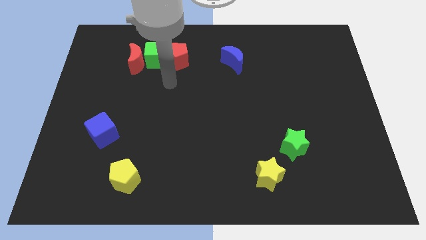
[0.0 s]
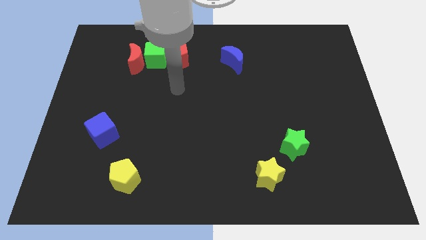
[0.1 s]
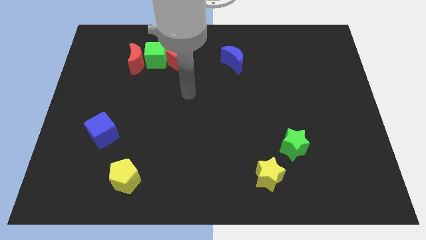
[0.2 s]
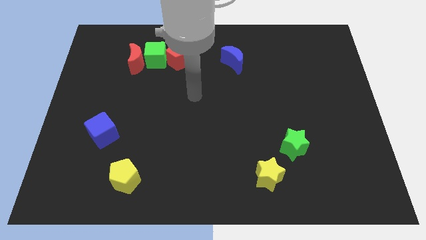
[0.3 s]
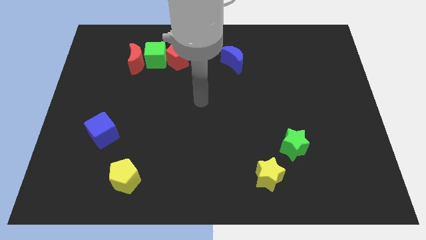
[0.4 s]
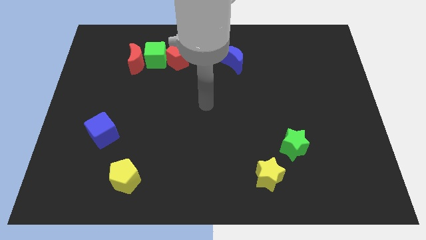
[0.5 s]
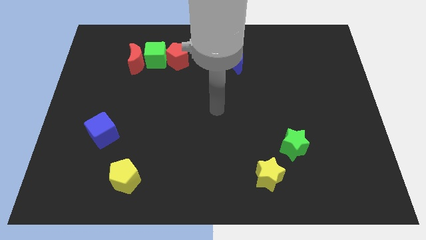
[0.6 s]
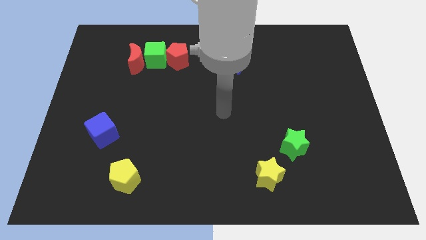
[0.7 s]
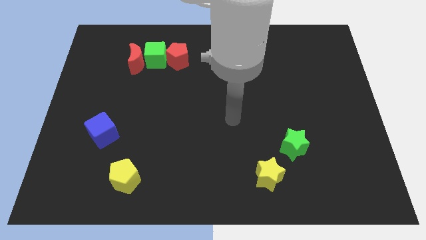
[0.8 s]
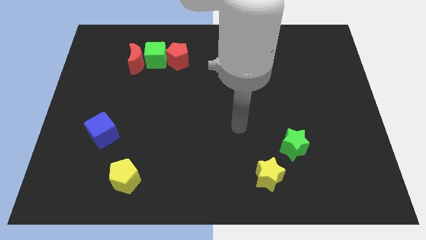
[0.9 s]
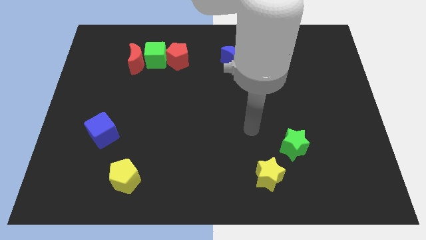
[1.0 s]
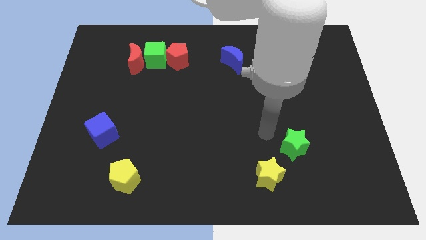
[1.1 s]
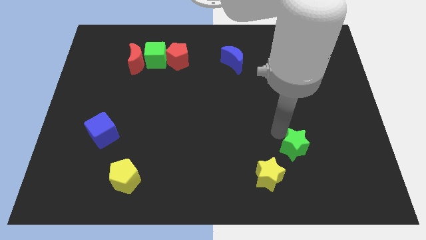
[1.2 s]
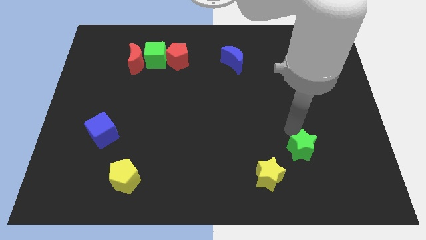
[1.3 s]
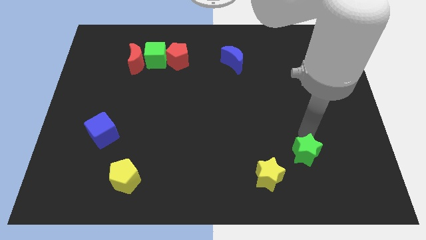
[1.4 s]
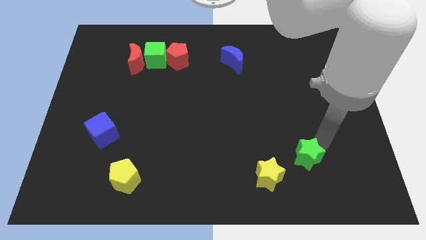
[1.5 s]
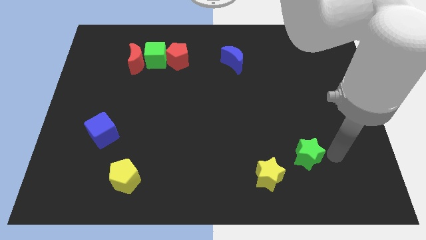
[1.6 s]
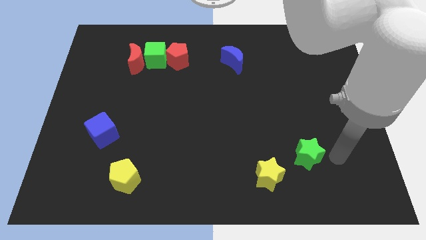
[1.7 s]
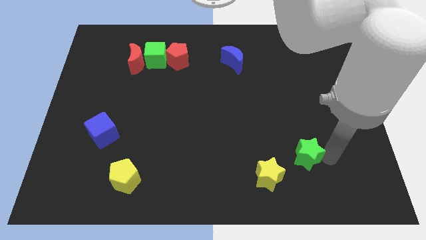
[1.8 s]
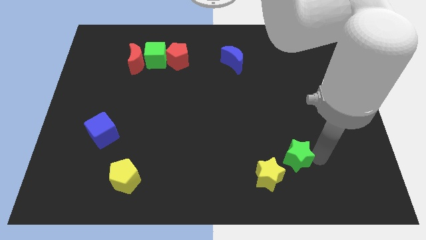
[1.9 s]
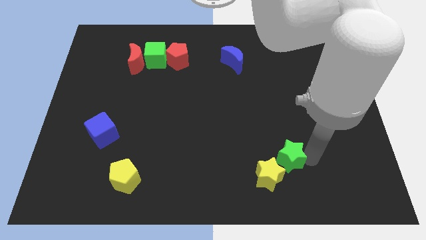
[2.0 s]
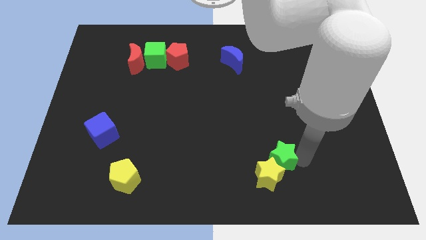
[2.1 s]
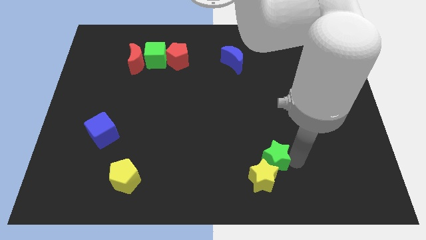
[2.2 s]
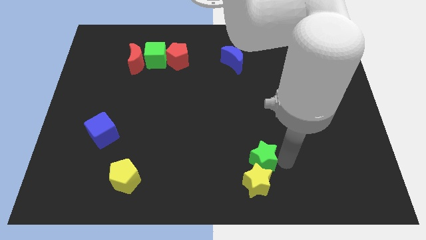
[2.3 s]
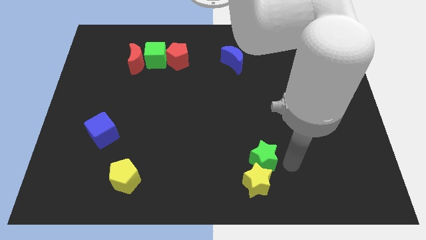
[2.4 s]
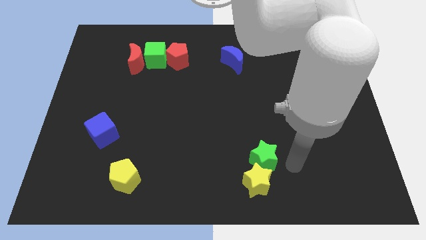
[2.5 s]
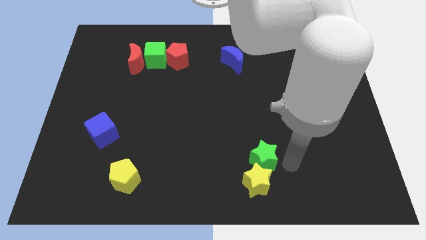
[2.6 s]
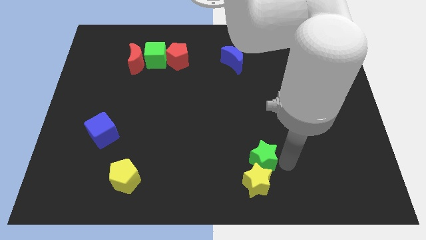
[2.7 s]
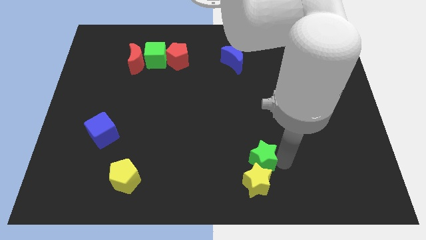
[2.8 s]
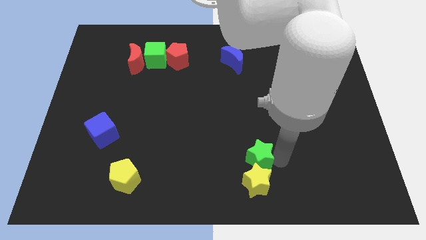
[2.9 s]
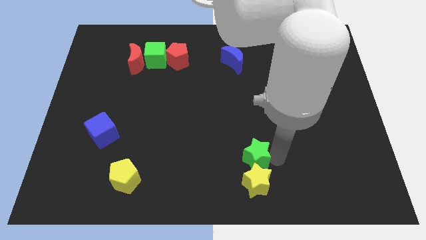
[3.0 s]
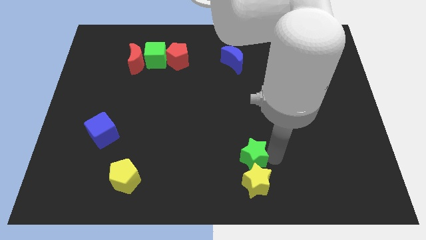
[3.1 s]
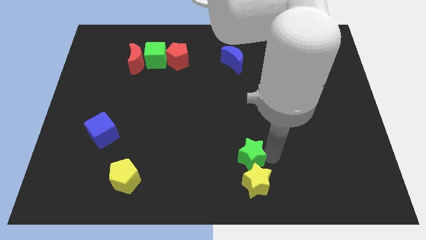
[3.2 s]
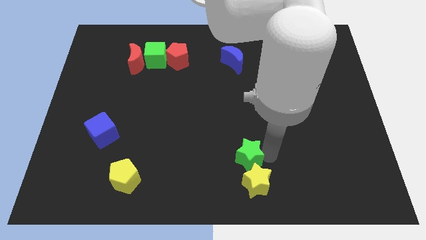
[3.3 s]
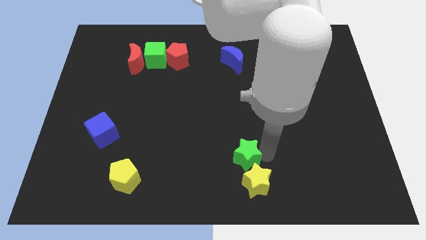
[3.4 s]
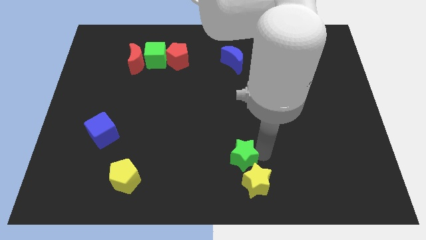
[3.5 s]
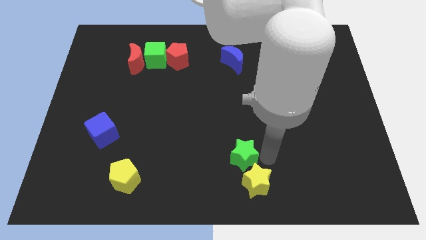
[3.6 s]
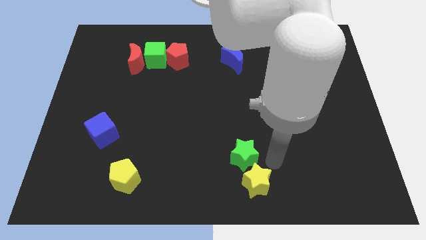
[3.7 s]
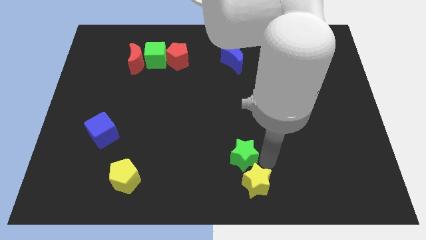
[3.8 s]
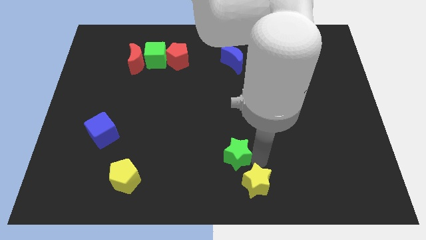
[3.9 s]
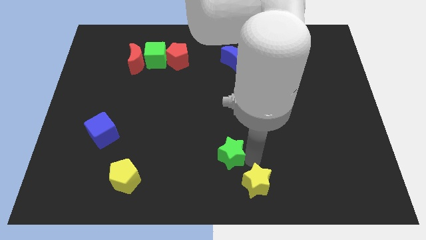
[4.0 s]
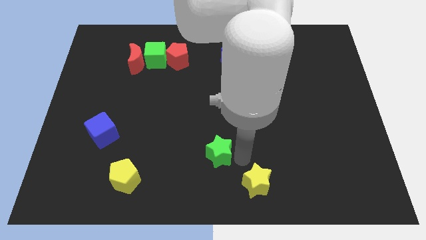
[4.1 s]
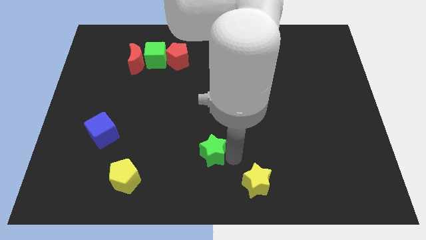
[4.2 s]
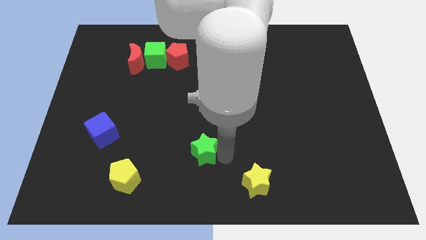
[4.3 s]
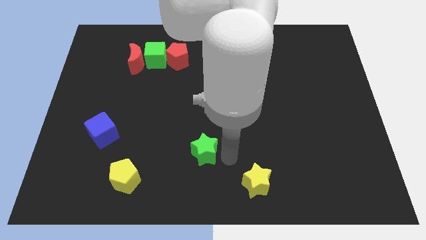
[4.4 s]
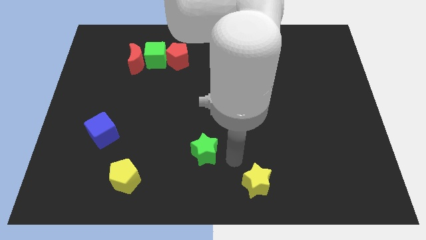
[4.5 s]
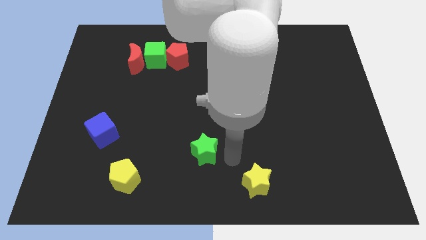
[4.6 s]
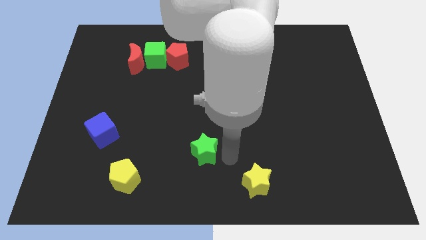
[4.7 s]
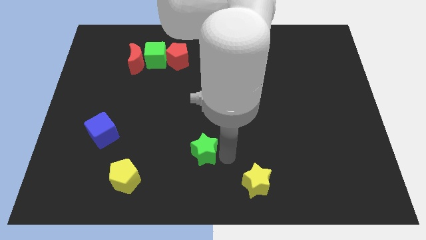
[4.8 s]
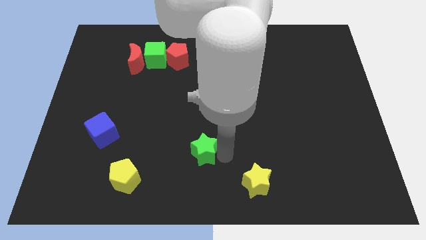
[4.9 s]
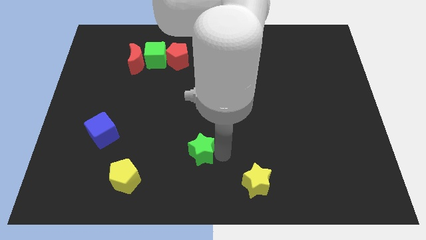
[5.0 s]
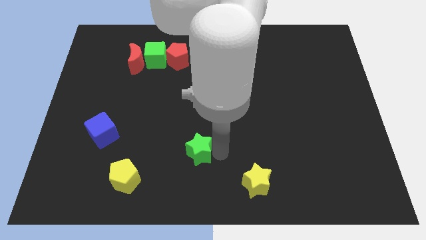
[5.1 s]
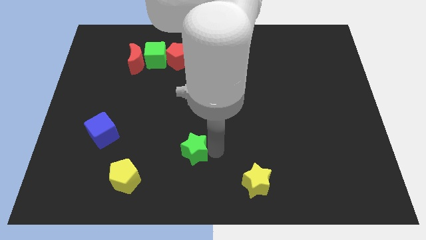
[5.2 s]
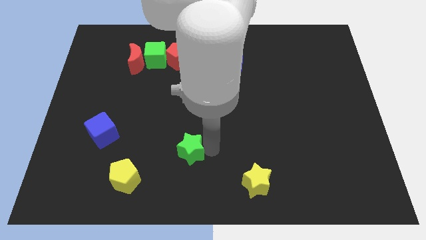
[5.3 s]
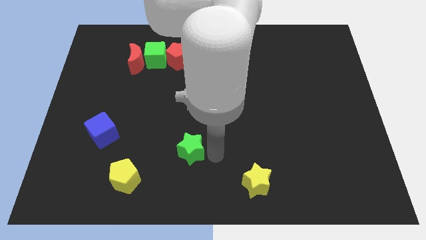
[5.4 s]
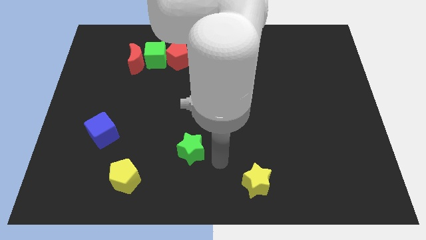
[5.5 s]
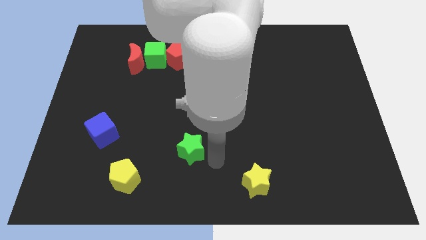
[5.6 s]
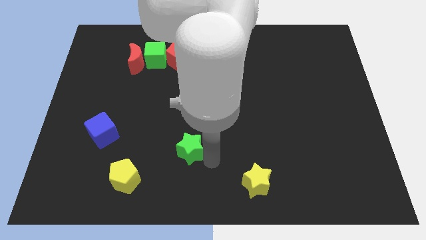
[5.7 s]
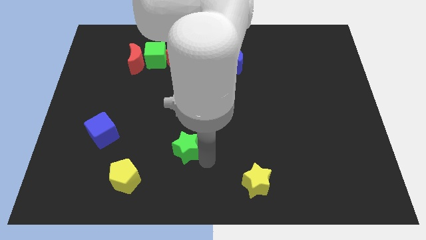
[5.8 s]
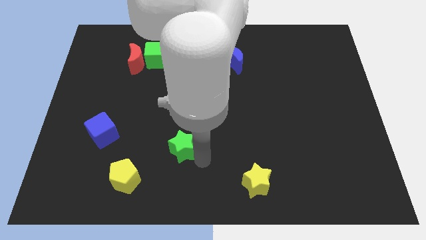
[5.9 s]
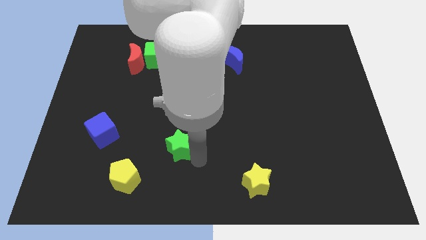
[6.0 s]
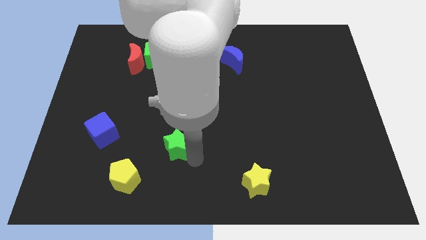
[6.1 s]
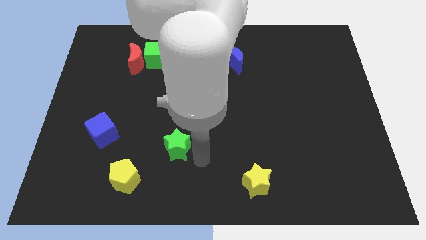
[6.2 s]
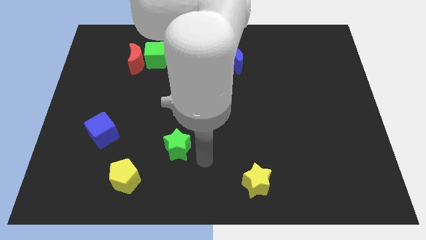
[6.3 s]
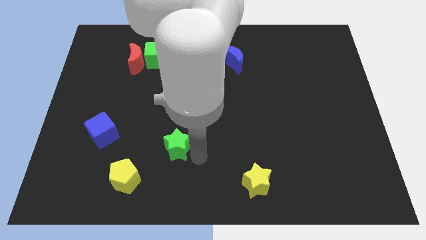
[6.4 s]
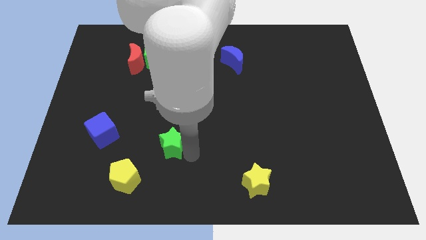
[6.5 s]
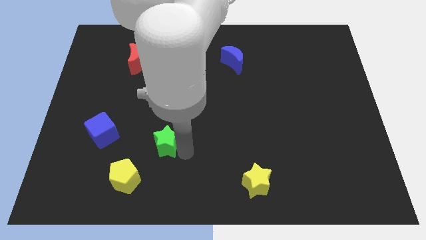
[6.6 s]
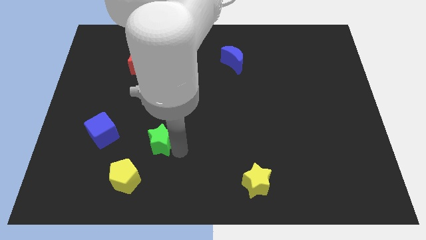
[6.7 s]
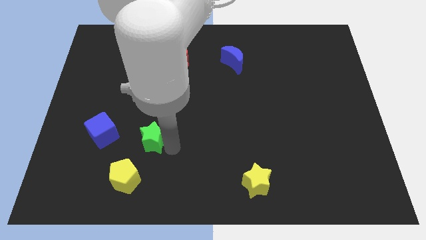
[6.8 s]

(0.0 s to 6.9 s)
put the green star above the yellow pentagon

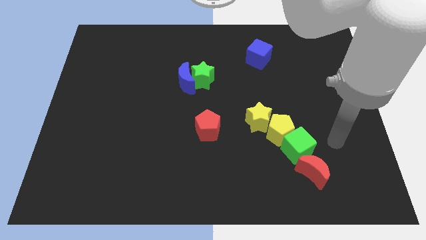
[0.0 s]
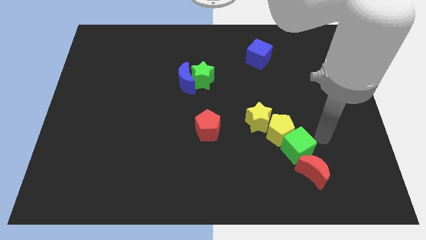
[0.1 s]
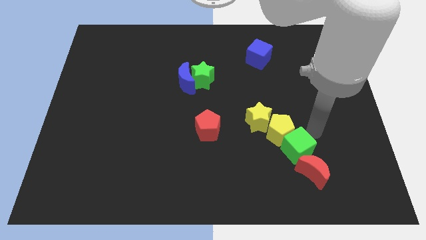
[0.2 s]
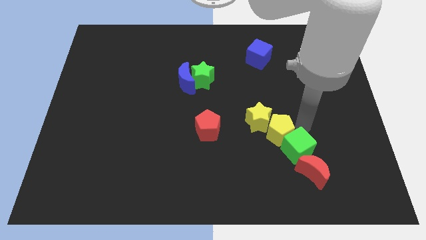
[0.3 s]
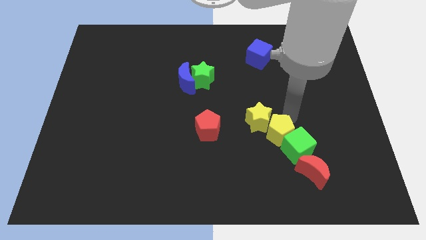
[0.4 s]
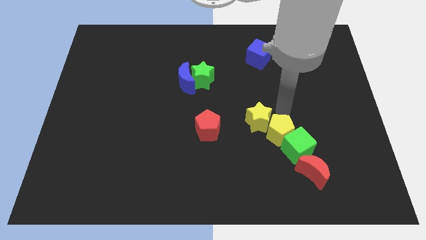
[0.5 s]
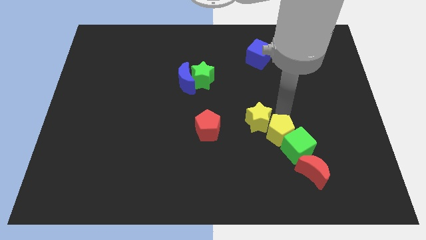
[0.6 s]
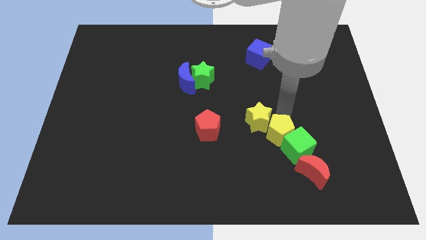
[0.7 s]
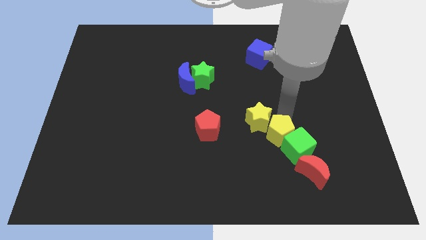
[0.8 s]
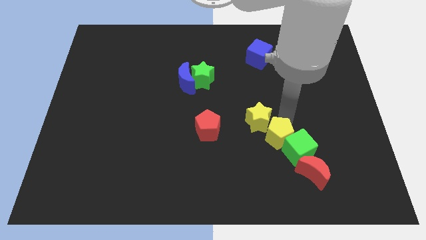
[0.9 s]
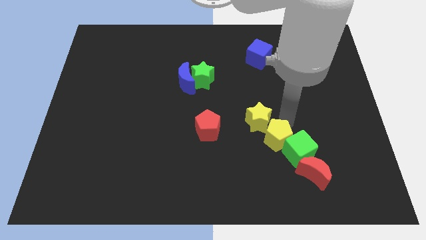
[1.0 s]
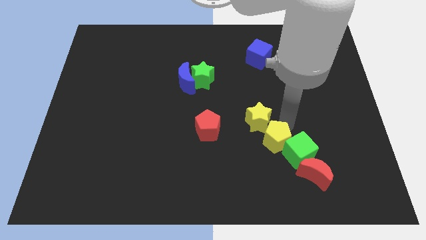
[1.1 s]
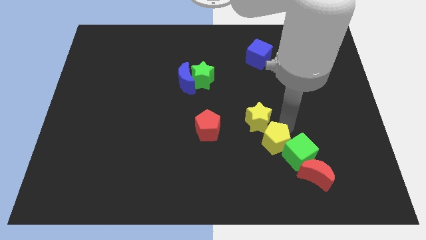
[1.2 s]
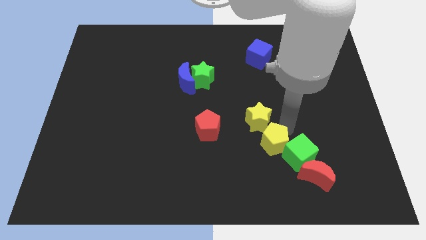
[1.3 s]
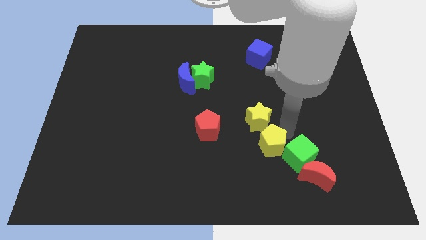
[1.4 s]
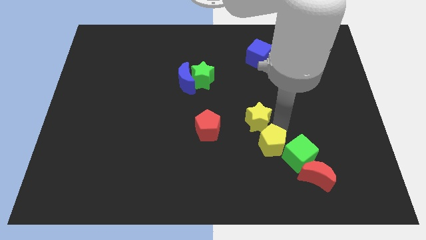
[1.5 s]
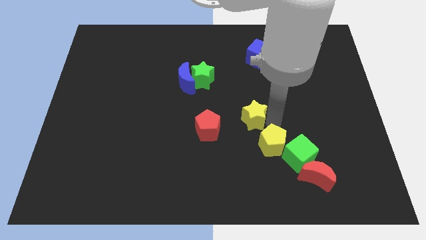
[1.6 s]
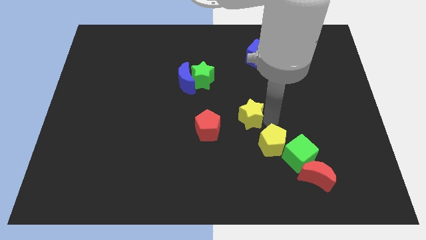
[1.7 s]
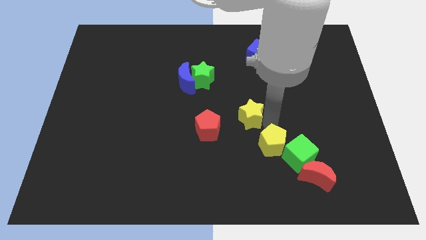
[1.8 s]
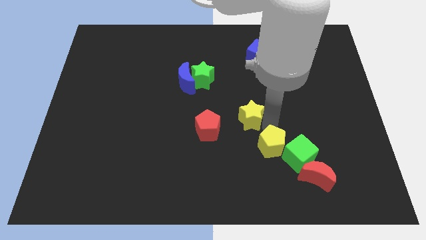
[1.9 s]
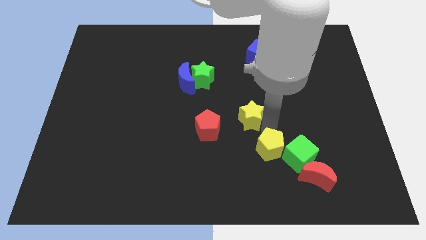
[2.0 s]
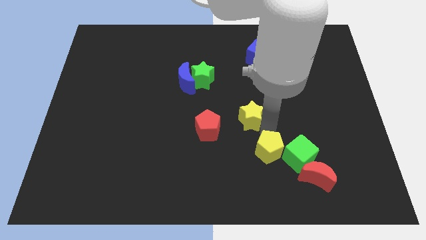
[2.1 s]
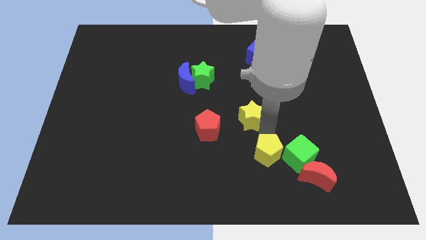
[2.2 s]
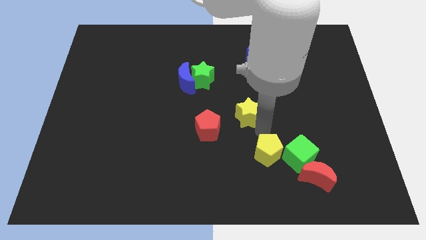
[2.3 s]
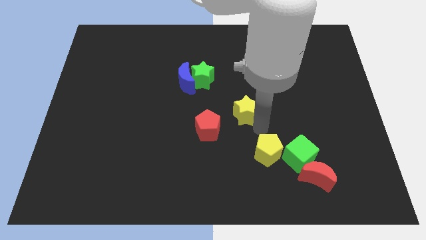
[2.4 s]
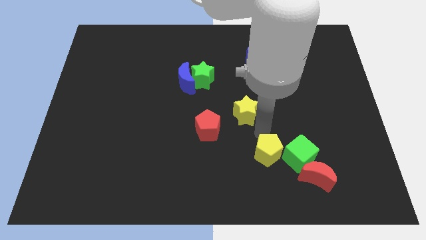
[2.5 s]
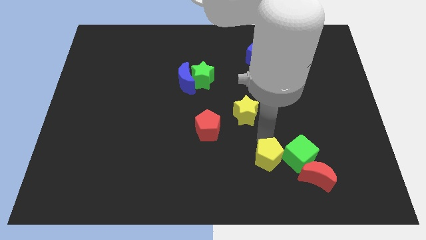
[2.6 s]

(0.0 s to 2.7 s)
slide the yellow pentagon to the bottom left of the green cube
